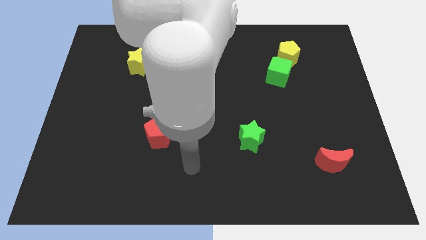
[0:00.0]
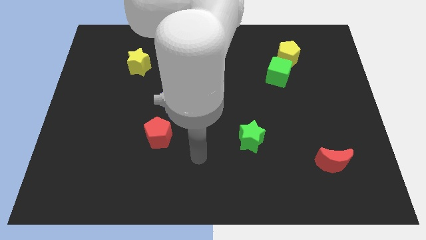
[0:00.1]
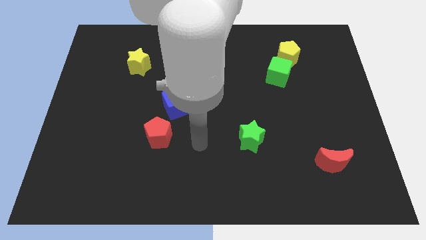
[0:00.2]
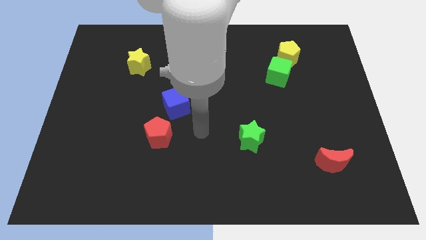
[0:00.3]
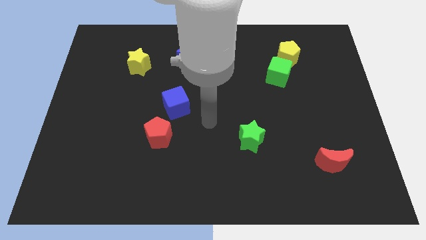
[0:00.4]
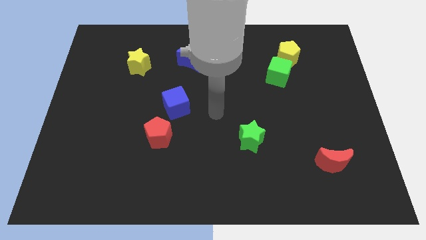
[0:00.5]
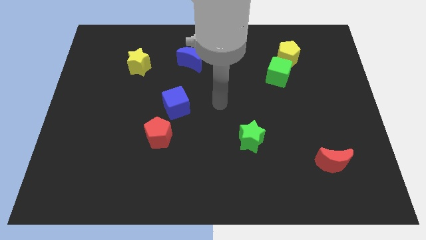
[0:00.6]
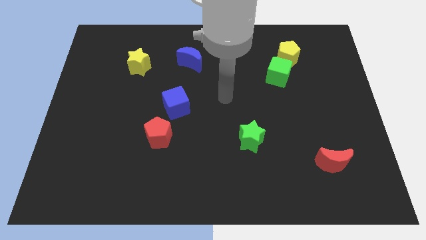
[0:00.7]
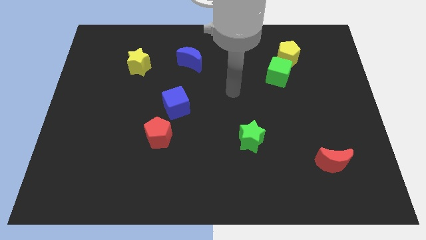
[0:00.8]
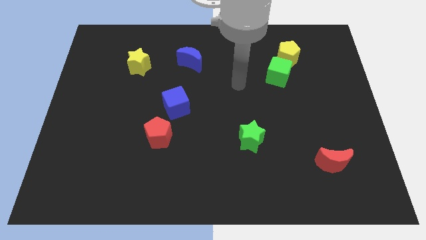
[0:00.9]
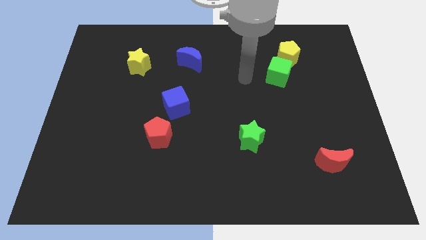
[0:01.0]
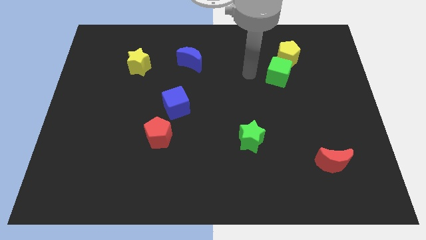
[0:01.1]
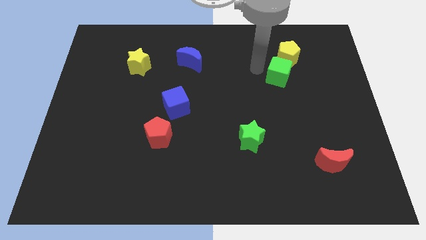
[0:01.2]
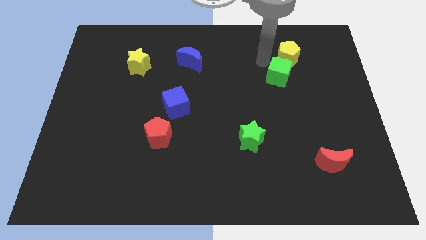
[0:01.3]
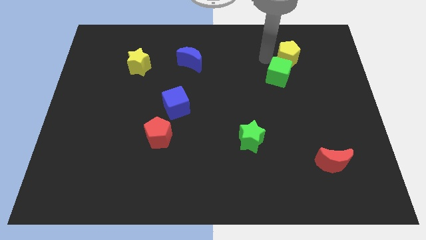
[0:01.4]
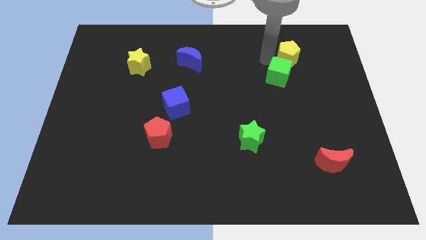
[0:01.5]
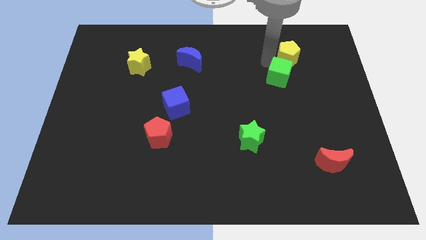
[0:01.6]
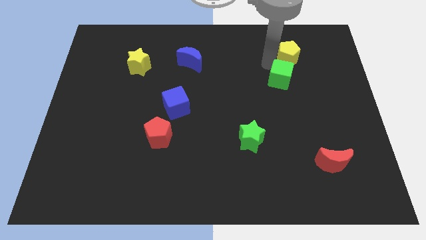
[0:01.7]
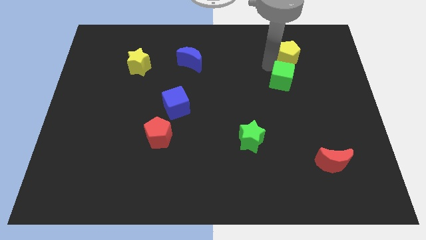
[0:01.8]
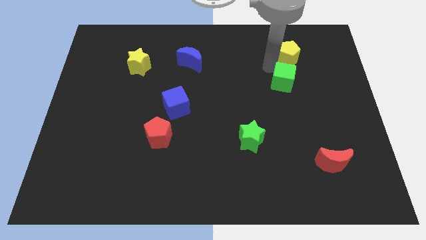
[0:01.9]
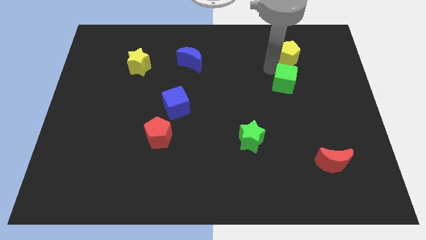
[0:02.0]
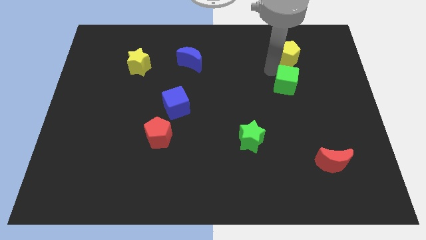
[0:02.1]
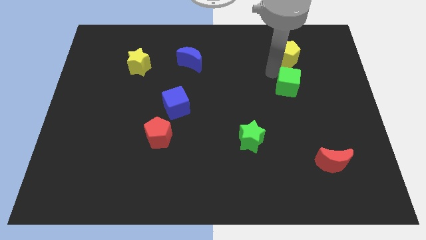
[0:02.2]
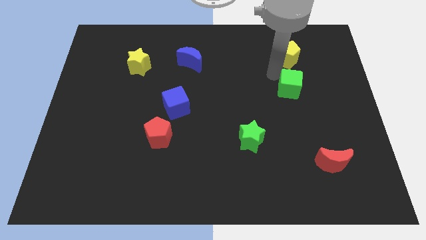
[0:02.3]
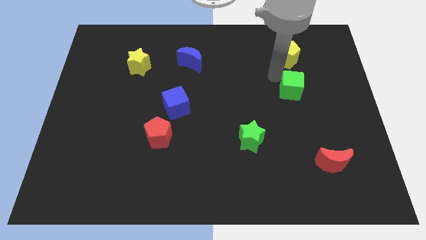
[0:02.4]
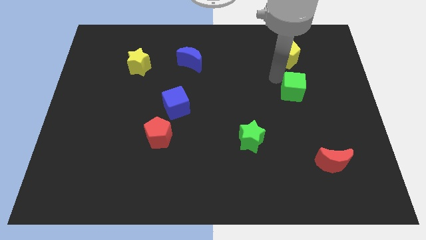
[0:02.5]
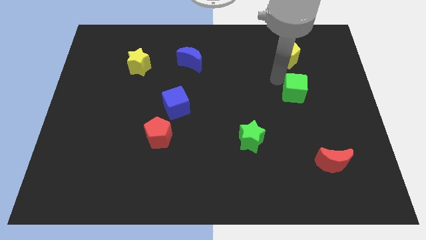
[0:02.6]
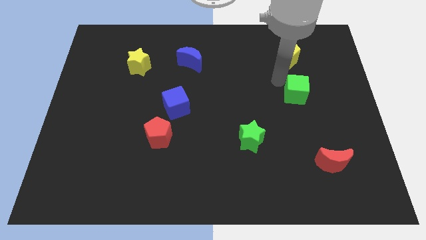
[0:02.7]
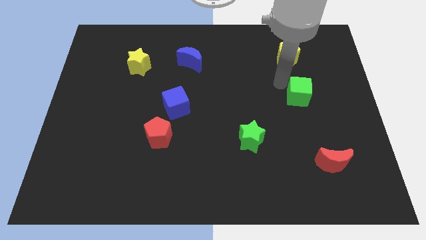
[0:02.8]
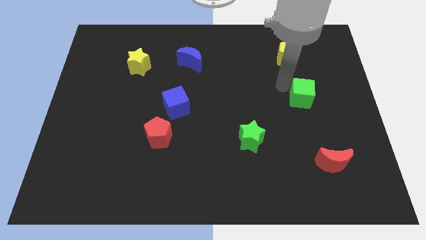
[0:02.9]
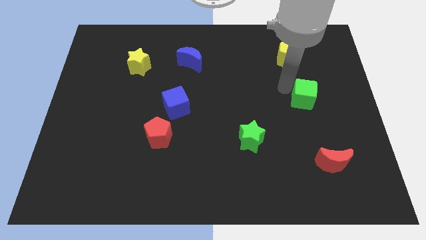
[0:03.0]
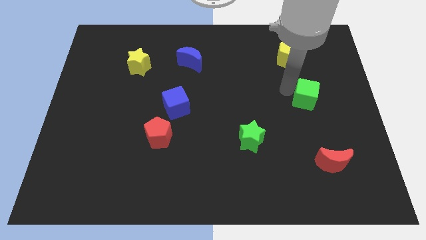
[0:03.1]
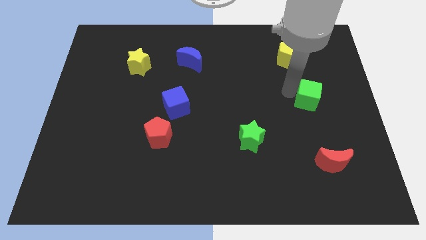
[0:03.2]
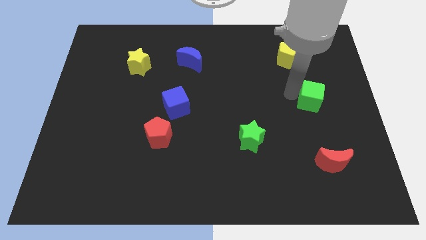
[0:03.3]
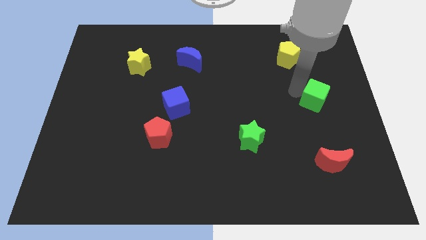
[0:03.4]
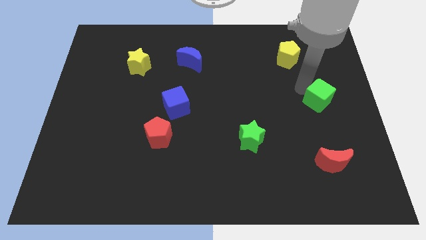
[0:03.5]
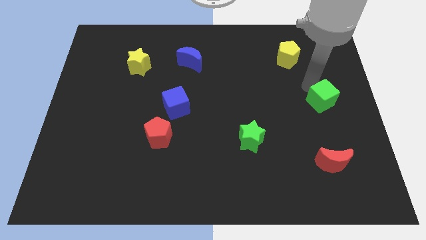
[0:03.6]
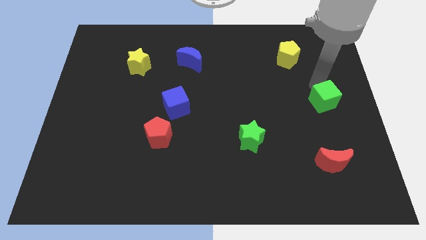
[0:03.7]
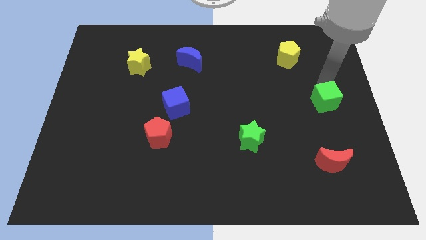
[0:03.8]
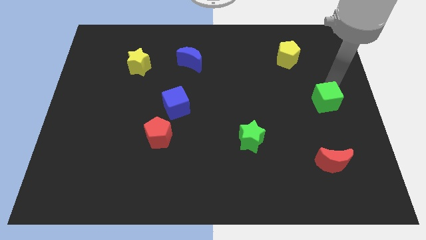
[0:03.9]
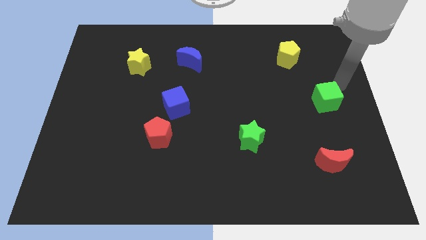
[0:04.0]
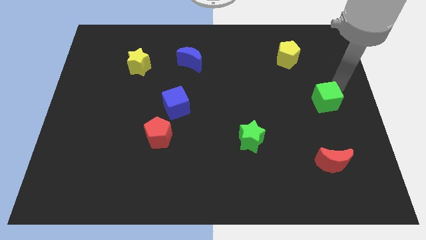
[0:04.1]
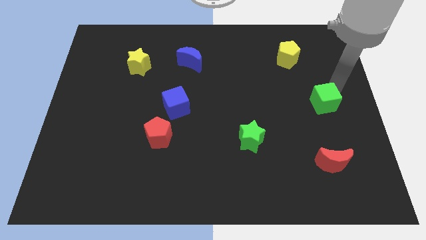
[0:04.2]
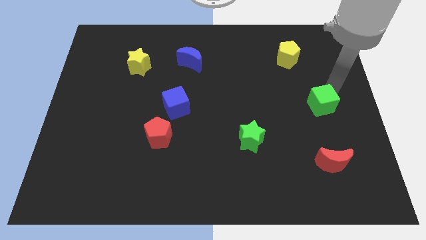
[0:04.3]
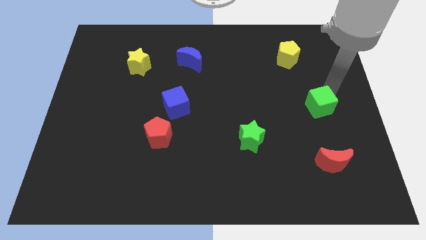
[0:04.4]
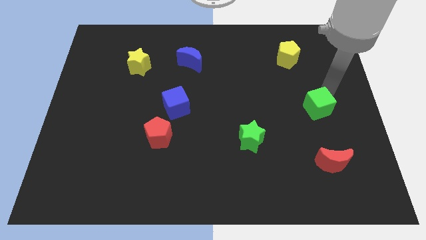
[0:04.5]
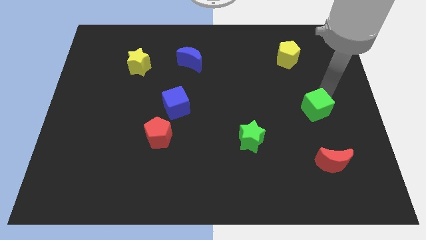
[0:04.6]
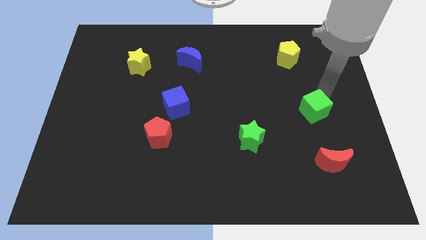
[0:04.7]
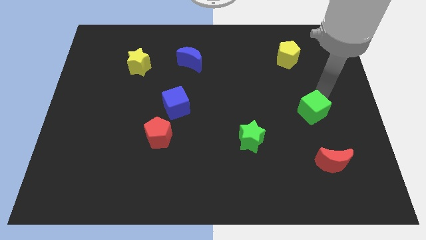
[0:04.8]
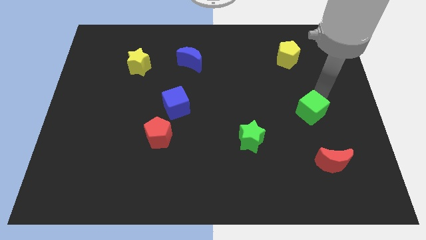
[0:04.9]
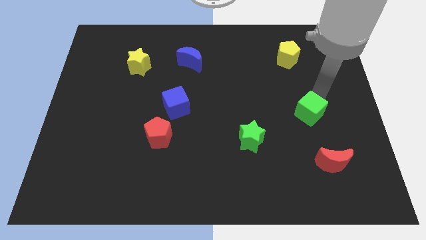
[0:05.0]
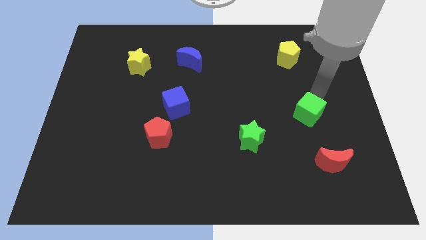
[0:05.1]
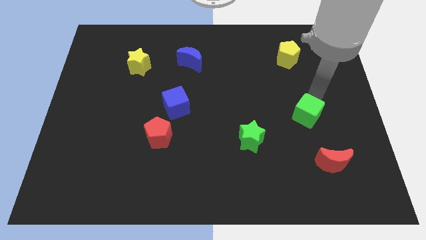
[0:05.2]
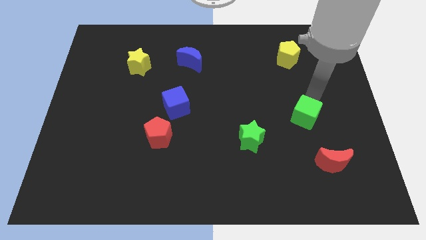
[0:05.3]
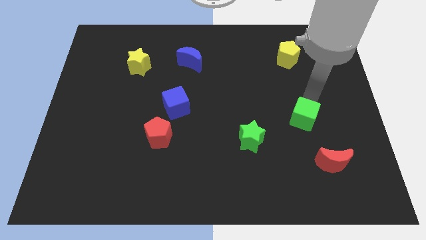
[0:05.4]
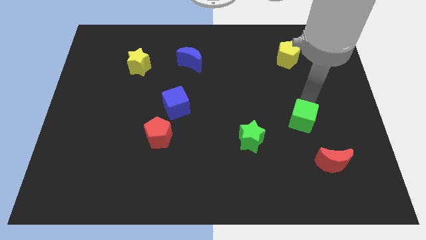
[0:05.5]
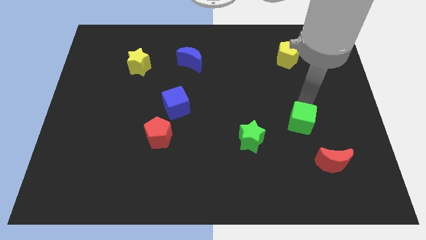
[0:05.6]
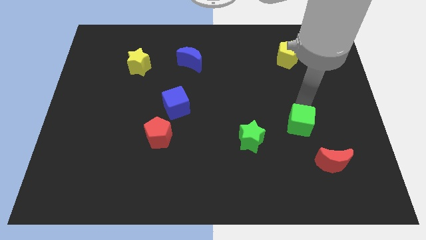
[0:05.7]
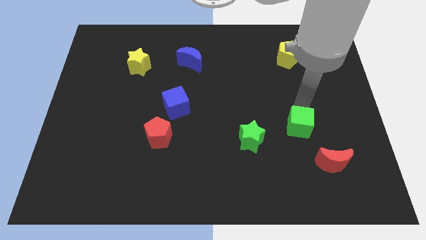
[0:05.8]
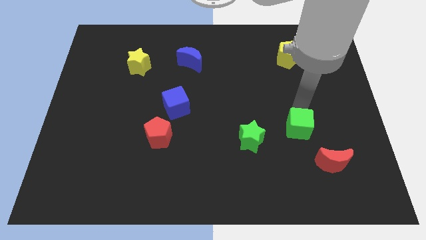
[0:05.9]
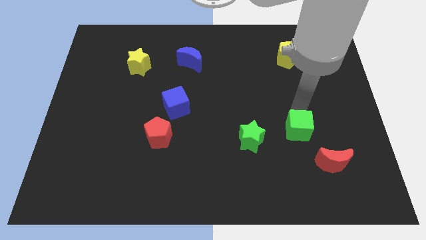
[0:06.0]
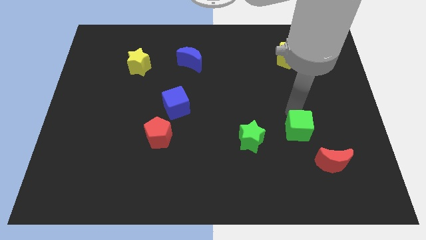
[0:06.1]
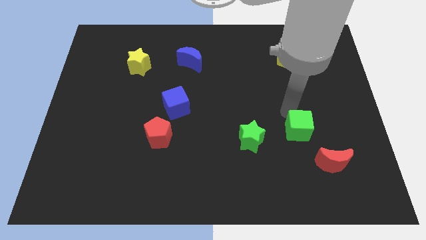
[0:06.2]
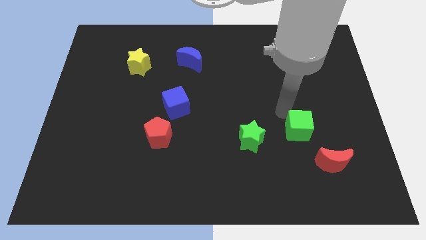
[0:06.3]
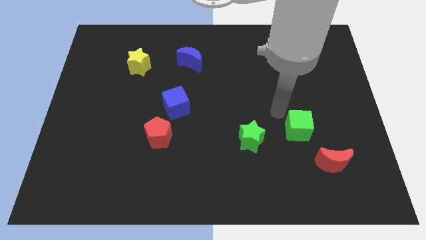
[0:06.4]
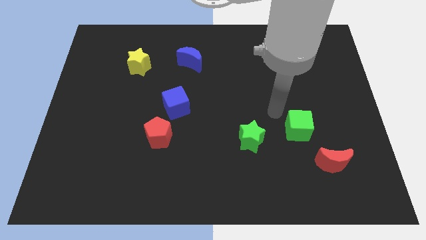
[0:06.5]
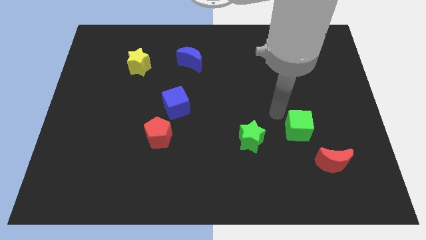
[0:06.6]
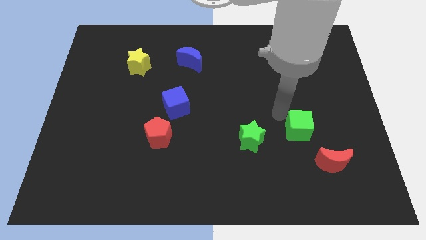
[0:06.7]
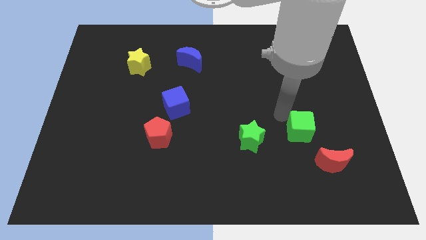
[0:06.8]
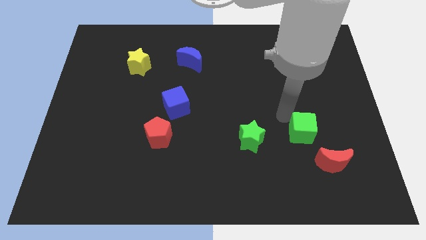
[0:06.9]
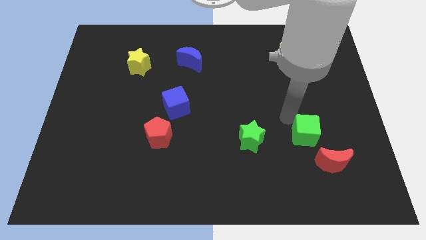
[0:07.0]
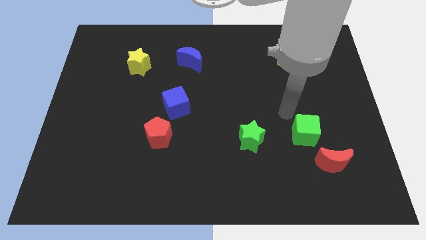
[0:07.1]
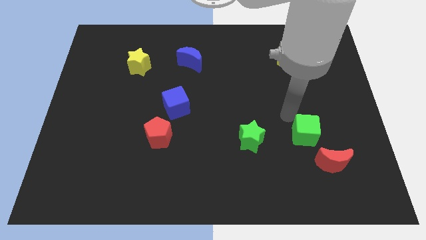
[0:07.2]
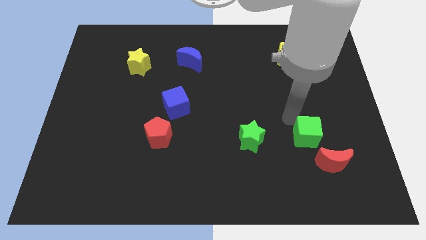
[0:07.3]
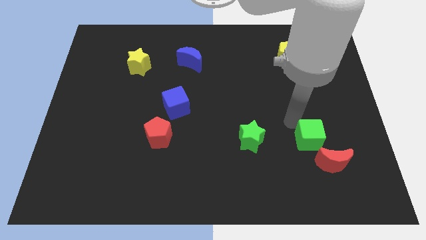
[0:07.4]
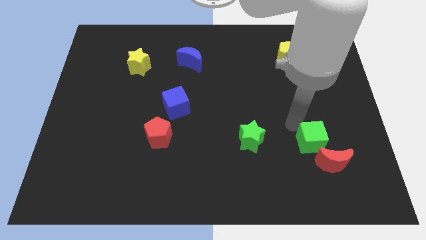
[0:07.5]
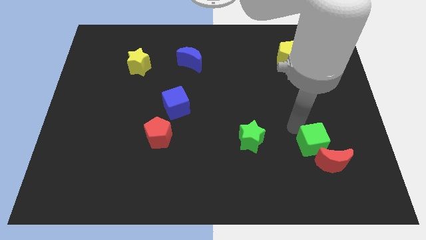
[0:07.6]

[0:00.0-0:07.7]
push the green cube to the red moon
